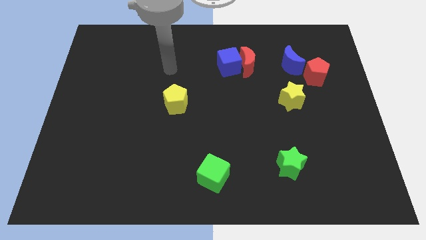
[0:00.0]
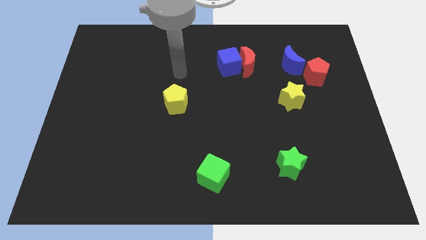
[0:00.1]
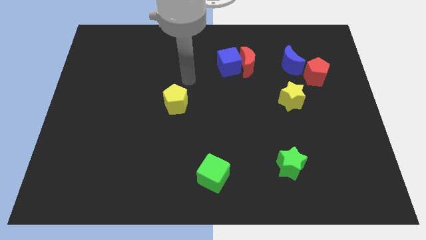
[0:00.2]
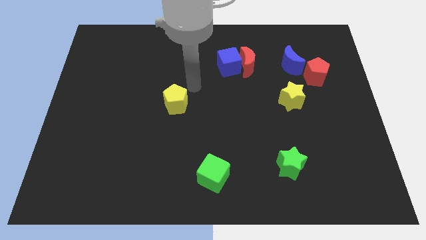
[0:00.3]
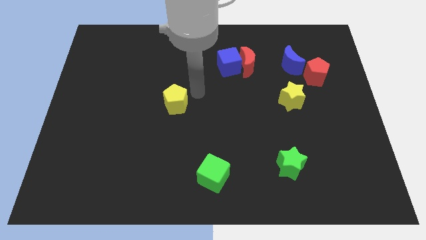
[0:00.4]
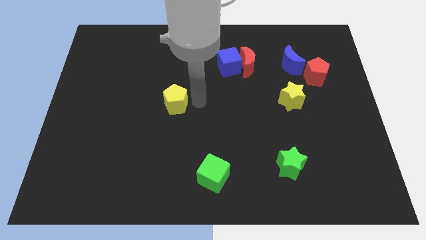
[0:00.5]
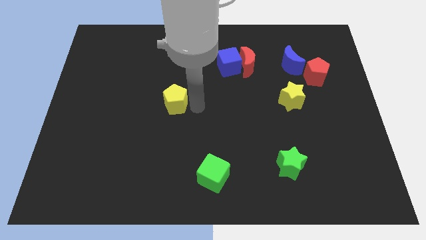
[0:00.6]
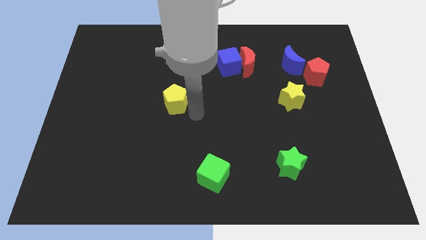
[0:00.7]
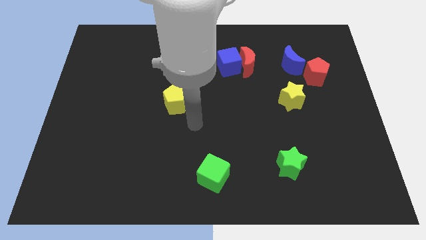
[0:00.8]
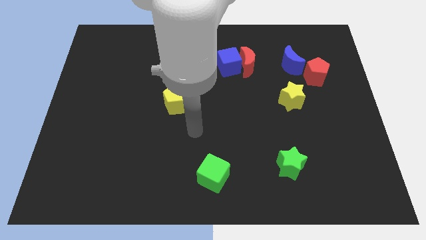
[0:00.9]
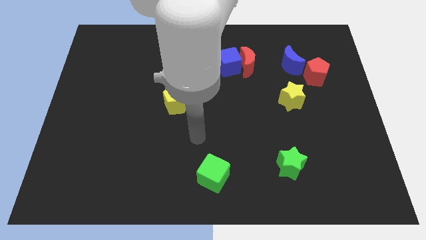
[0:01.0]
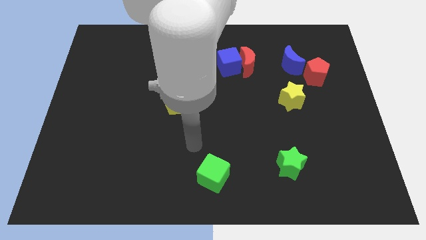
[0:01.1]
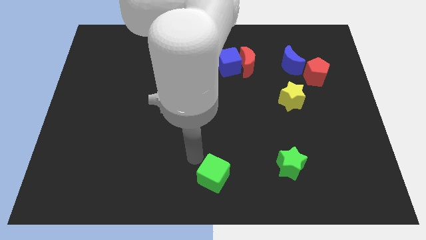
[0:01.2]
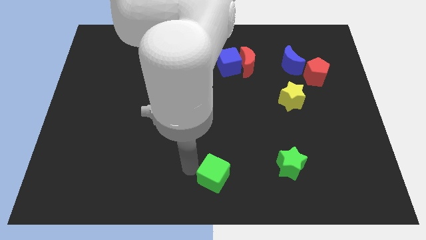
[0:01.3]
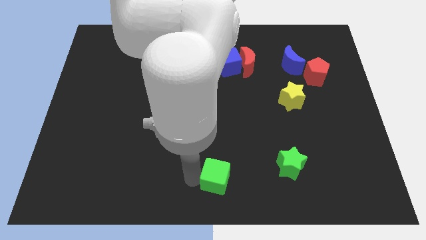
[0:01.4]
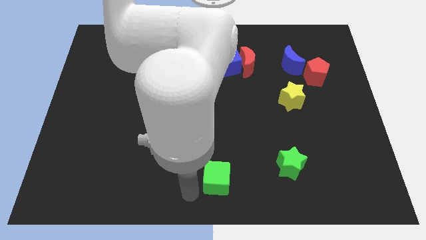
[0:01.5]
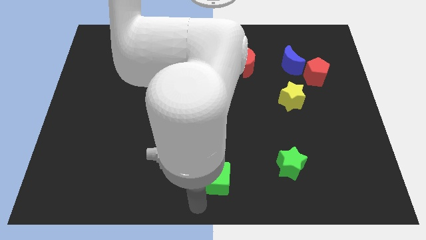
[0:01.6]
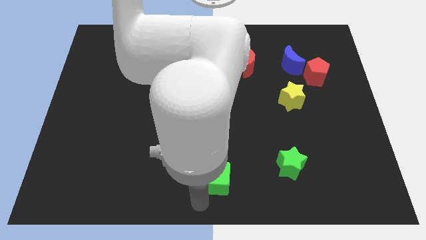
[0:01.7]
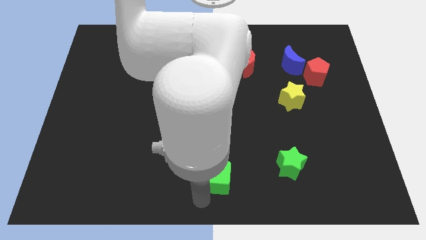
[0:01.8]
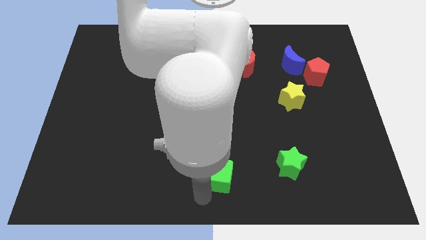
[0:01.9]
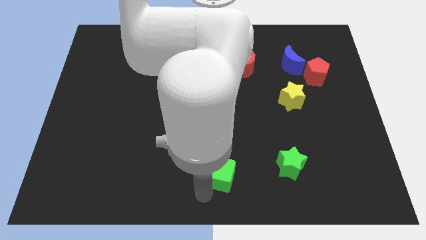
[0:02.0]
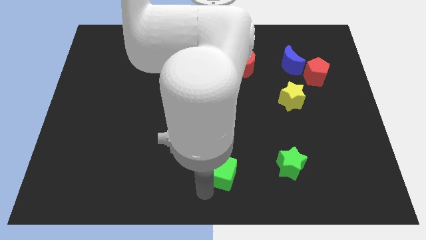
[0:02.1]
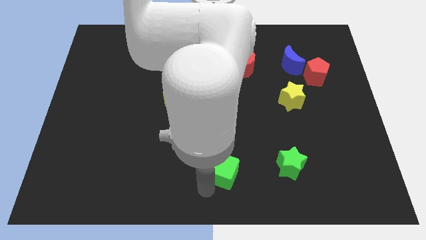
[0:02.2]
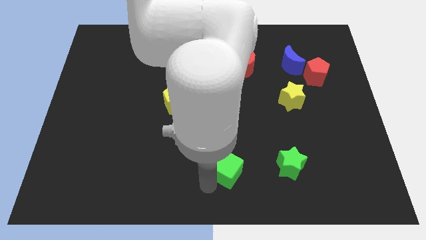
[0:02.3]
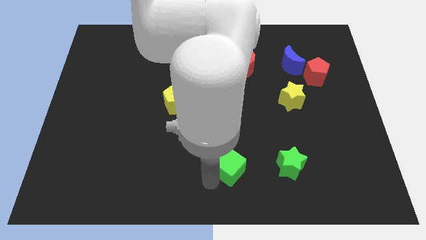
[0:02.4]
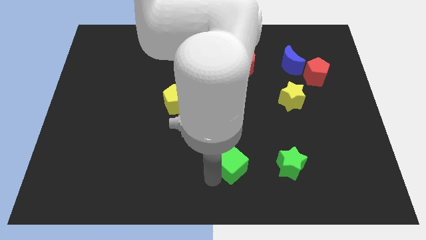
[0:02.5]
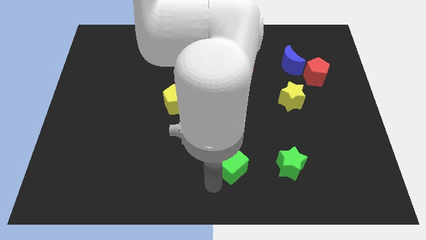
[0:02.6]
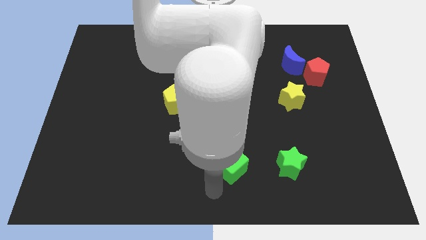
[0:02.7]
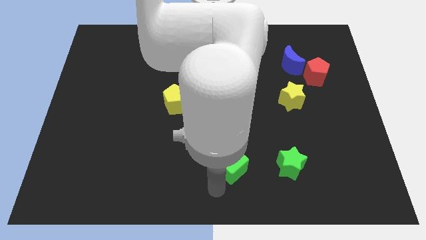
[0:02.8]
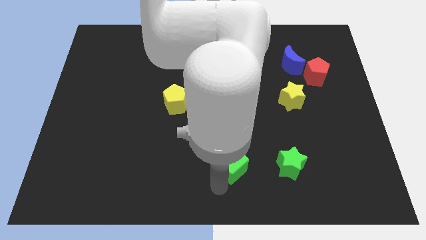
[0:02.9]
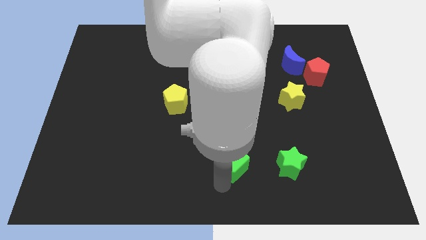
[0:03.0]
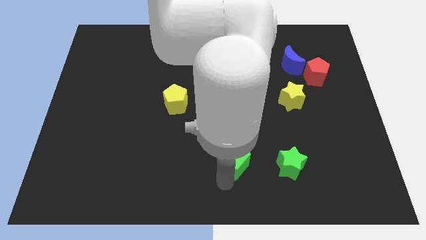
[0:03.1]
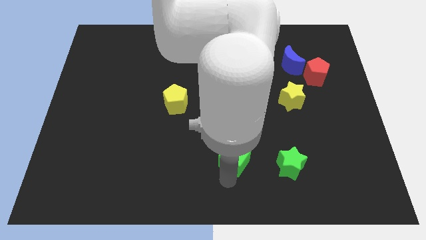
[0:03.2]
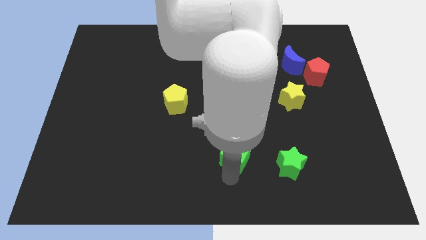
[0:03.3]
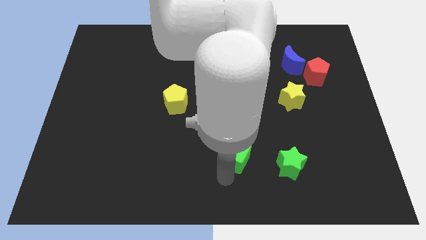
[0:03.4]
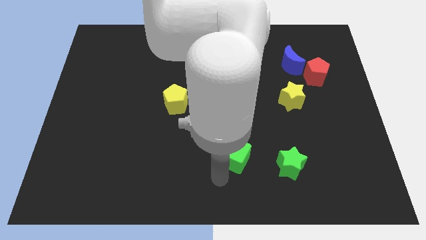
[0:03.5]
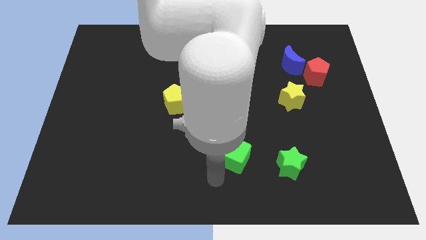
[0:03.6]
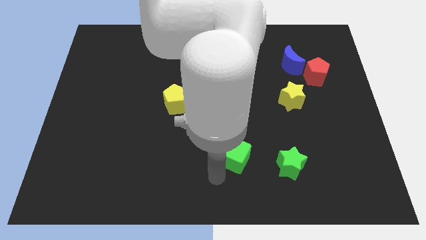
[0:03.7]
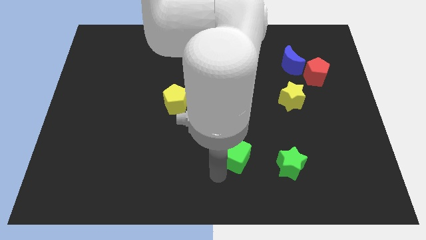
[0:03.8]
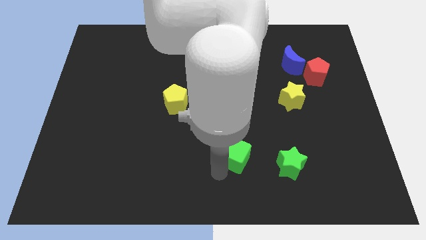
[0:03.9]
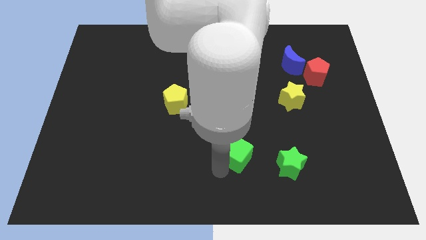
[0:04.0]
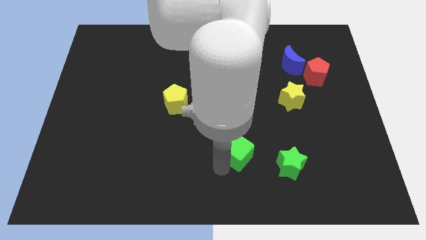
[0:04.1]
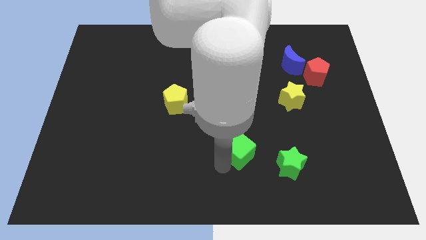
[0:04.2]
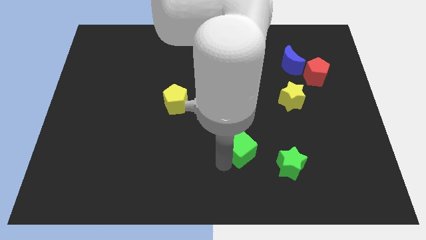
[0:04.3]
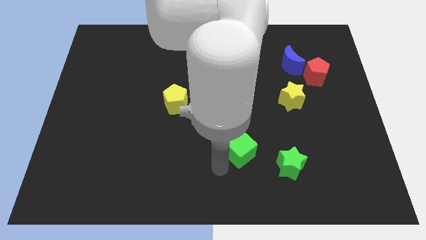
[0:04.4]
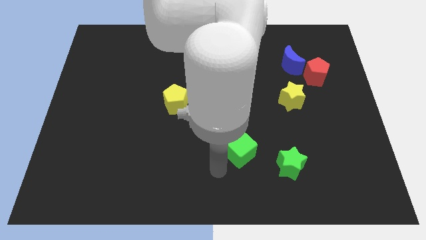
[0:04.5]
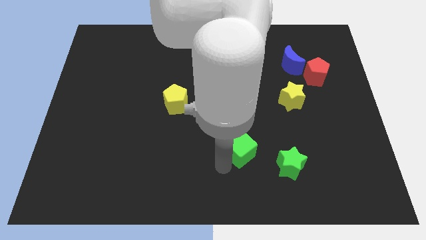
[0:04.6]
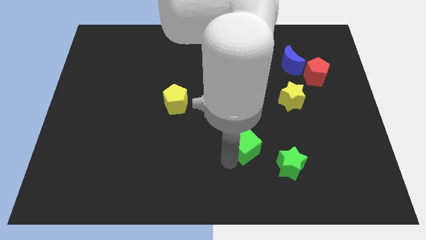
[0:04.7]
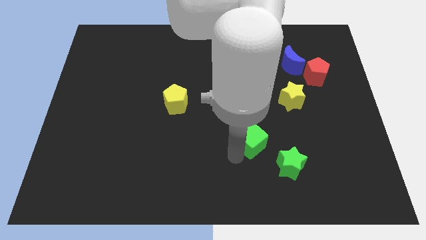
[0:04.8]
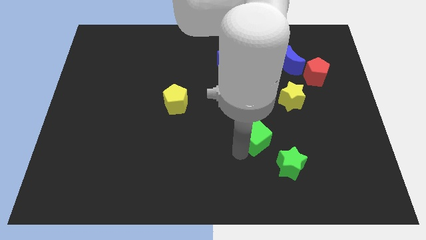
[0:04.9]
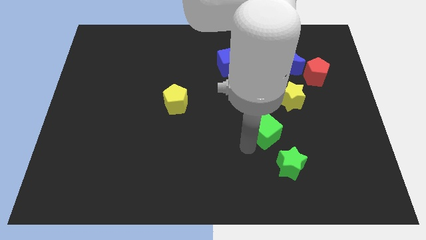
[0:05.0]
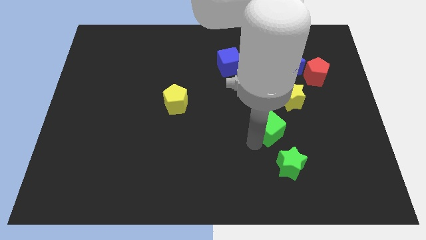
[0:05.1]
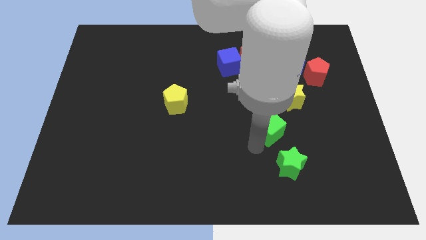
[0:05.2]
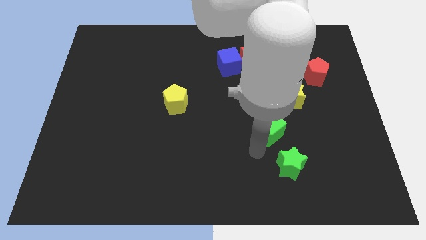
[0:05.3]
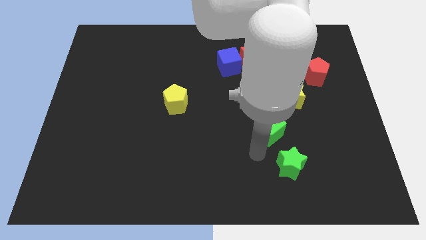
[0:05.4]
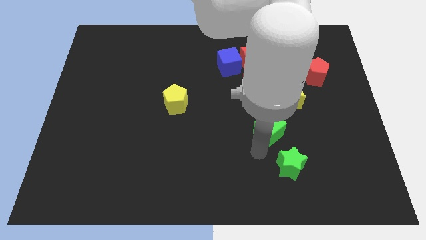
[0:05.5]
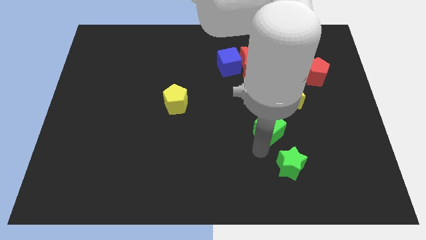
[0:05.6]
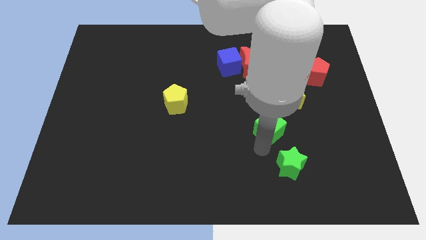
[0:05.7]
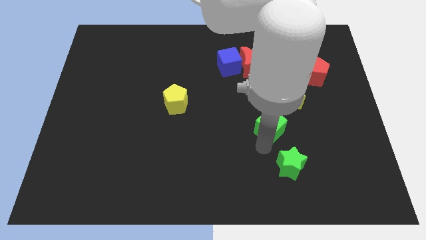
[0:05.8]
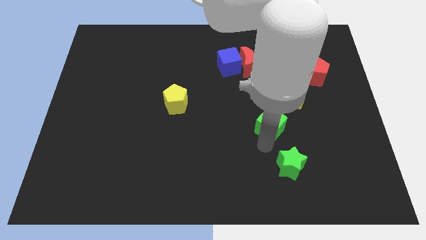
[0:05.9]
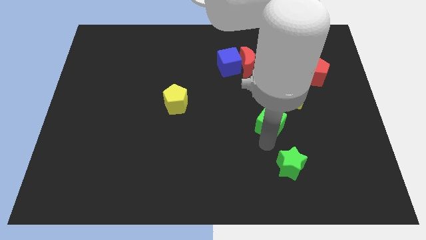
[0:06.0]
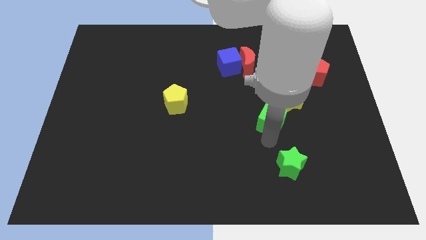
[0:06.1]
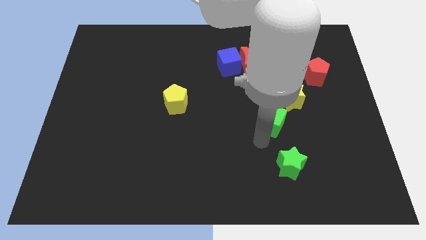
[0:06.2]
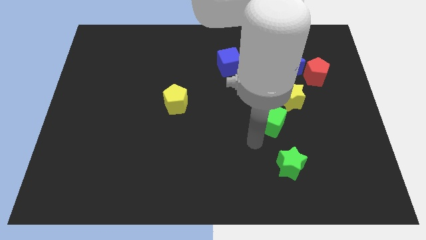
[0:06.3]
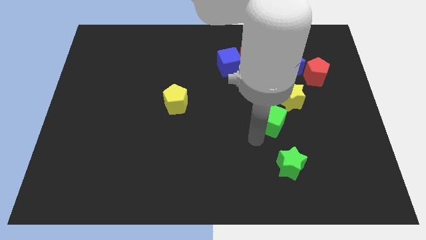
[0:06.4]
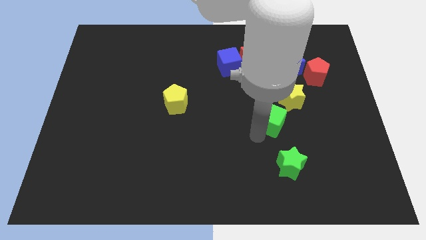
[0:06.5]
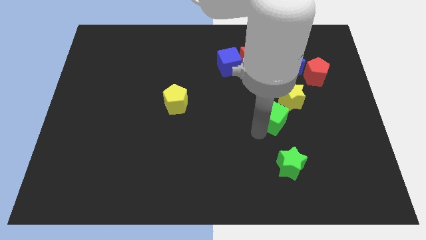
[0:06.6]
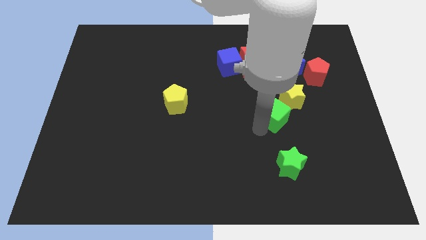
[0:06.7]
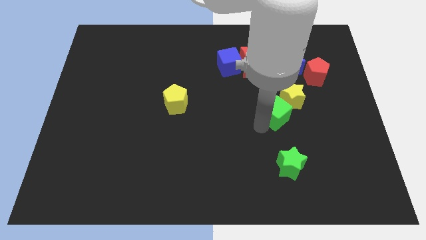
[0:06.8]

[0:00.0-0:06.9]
push the green cube to the yellow star
